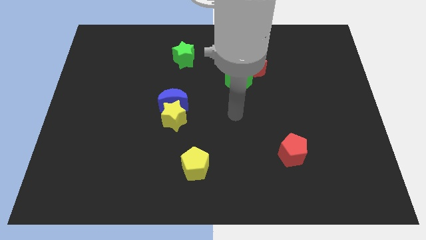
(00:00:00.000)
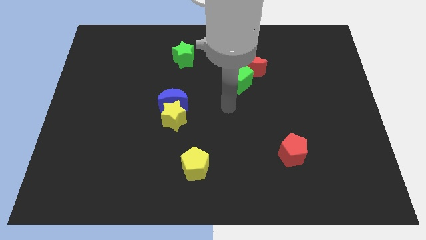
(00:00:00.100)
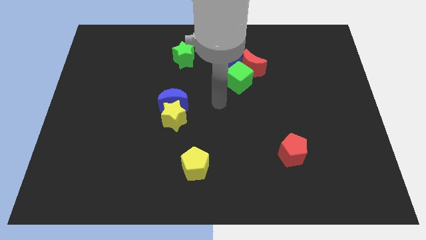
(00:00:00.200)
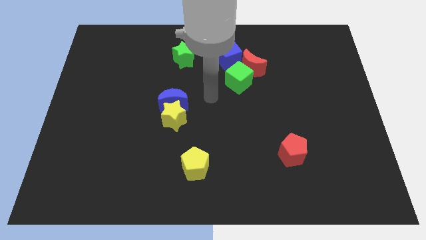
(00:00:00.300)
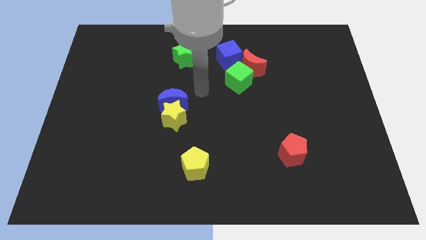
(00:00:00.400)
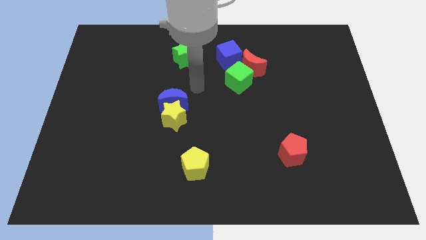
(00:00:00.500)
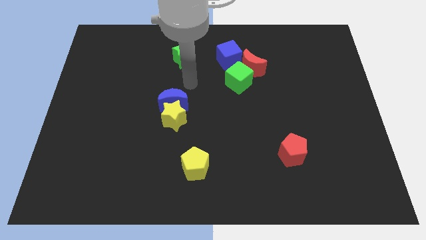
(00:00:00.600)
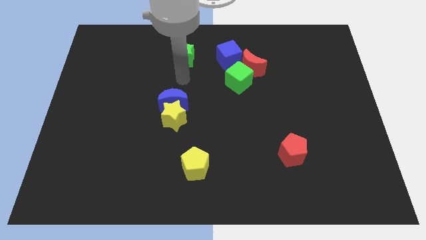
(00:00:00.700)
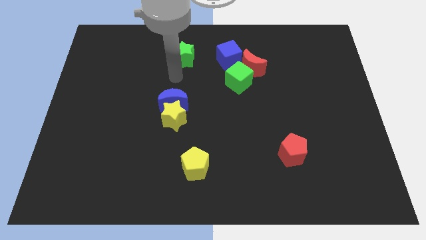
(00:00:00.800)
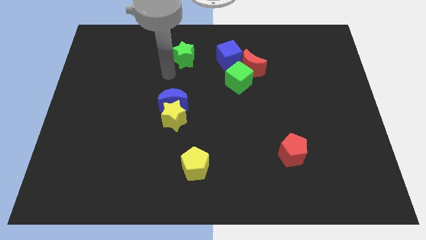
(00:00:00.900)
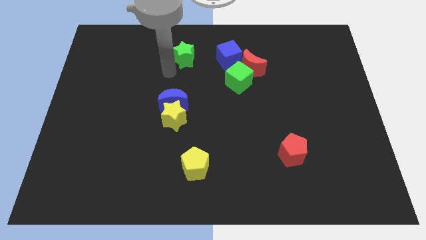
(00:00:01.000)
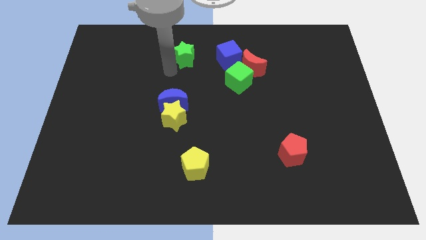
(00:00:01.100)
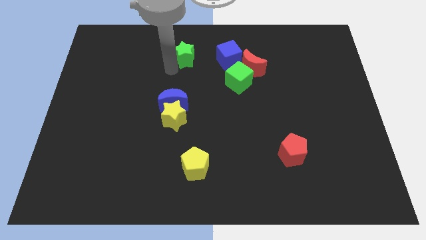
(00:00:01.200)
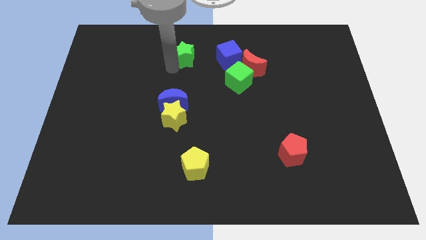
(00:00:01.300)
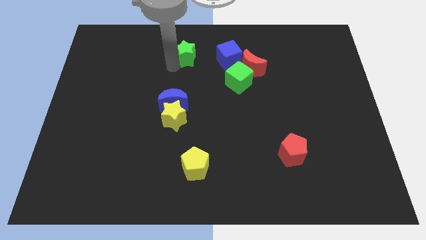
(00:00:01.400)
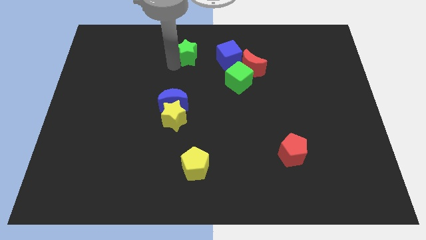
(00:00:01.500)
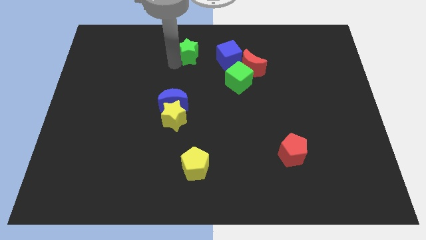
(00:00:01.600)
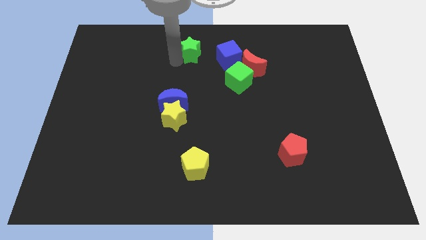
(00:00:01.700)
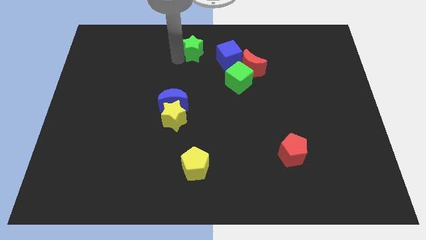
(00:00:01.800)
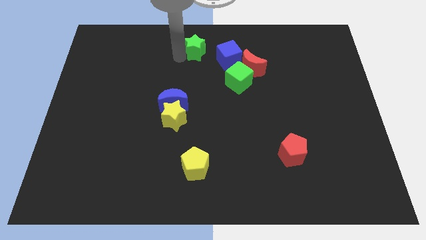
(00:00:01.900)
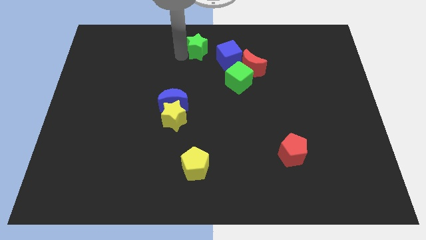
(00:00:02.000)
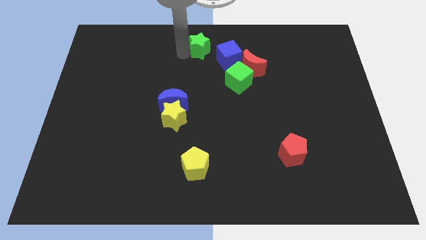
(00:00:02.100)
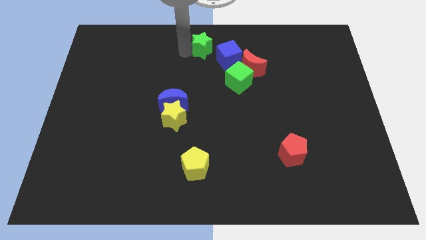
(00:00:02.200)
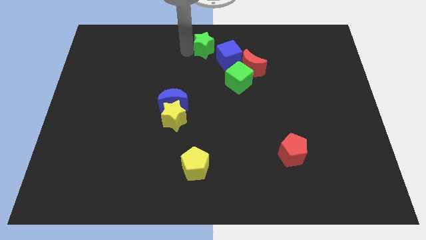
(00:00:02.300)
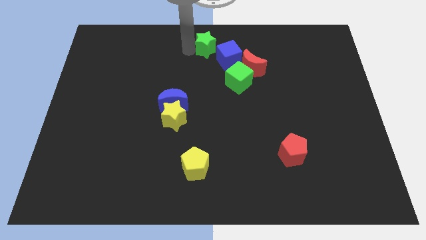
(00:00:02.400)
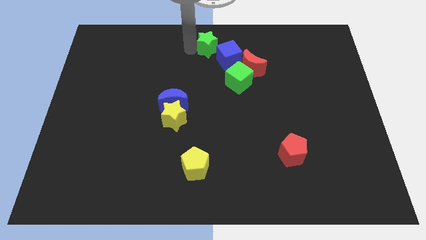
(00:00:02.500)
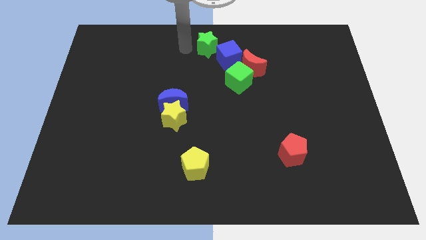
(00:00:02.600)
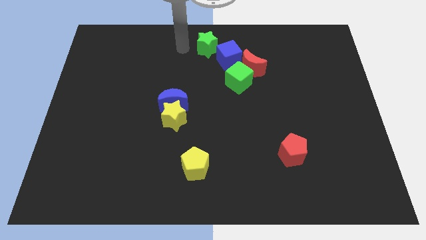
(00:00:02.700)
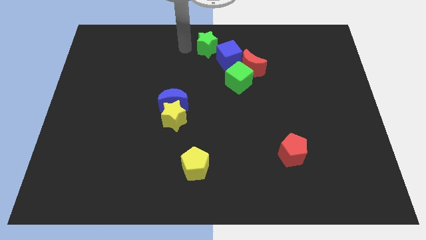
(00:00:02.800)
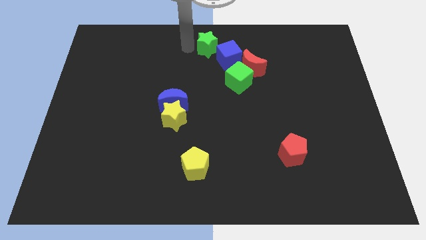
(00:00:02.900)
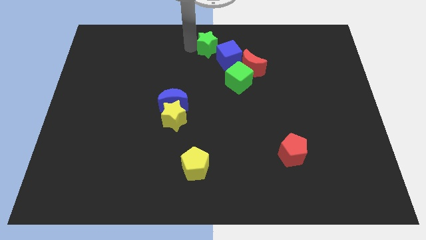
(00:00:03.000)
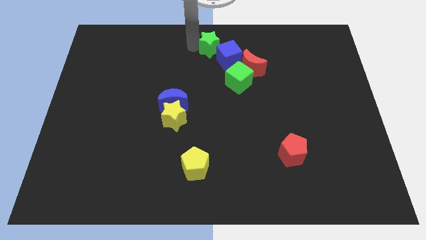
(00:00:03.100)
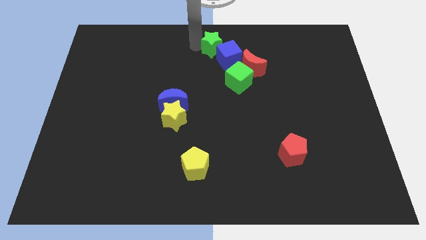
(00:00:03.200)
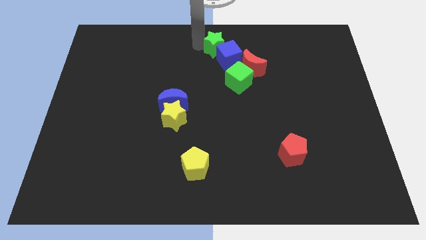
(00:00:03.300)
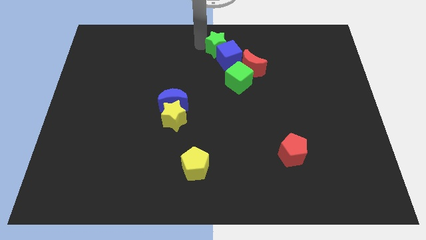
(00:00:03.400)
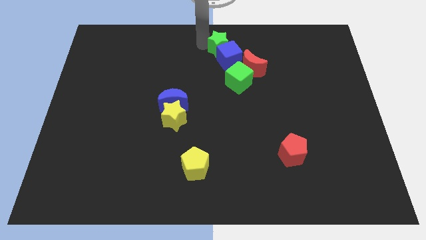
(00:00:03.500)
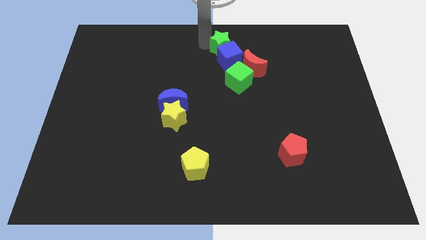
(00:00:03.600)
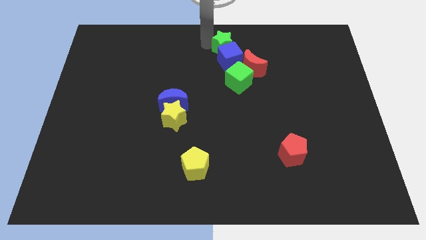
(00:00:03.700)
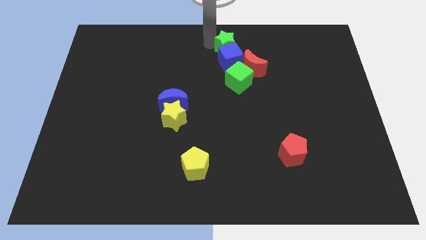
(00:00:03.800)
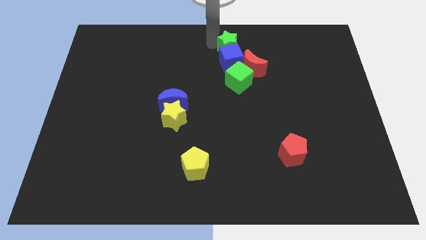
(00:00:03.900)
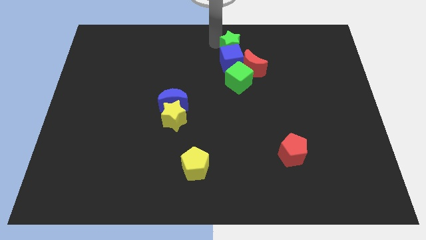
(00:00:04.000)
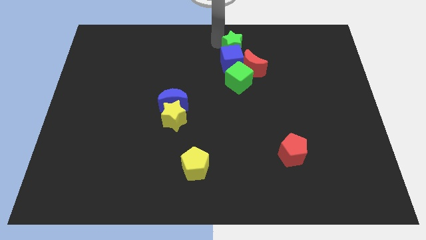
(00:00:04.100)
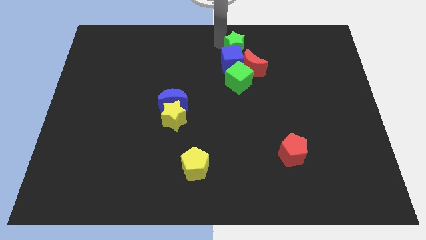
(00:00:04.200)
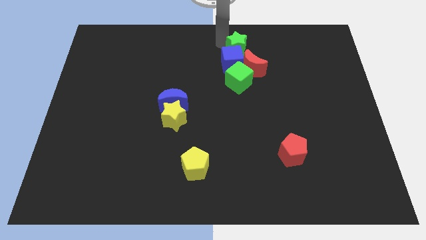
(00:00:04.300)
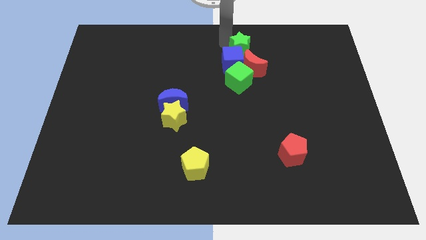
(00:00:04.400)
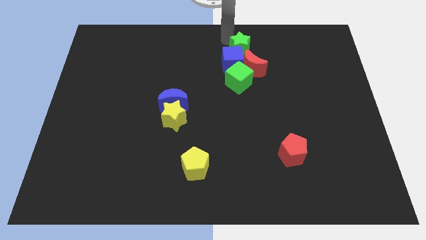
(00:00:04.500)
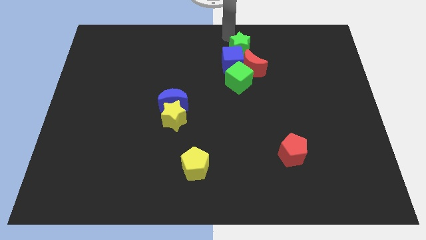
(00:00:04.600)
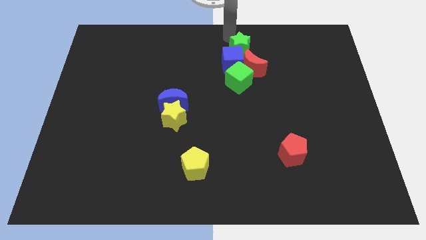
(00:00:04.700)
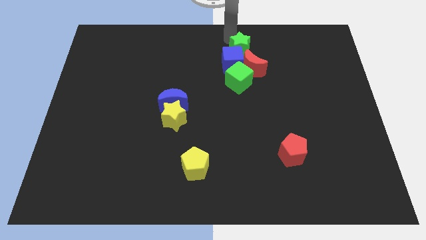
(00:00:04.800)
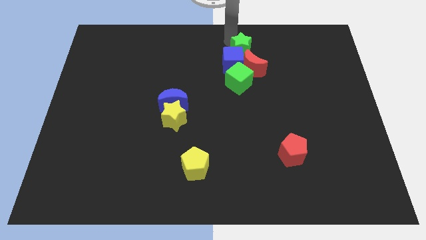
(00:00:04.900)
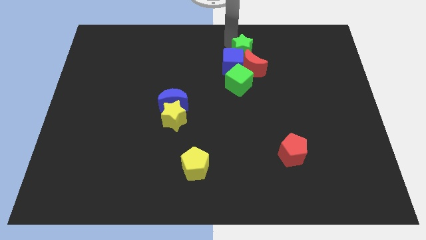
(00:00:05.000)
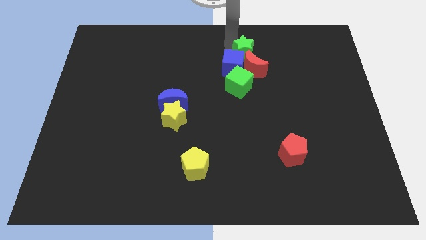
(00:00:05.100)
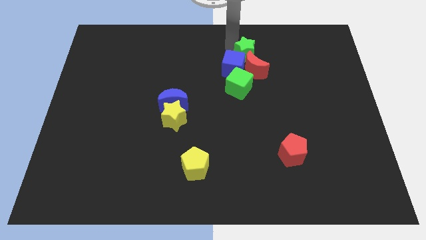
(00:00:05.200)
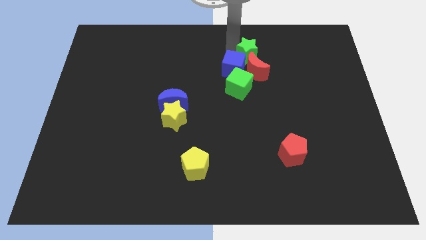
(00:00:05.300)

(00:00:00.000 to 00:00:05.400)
slide the green star next to the red moon

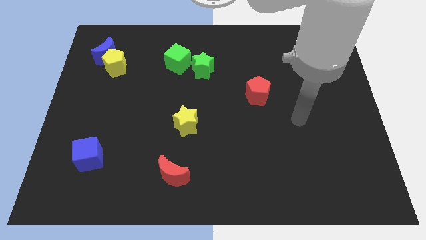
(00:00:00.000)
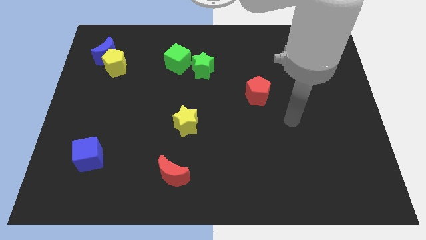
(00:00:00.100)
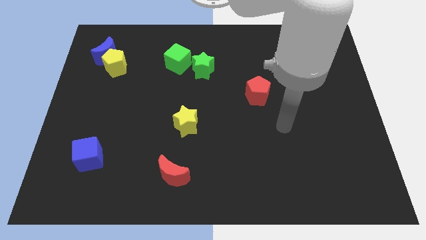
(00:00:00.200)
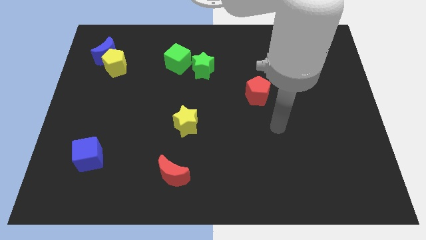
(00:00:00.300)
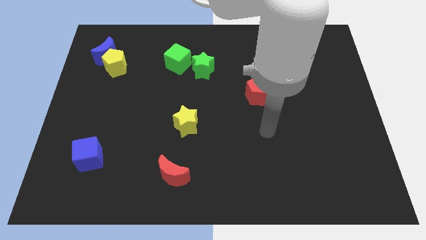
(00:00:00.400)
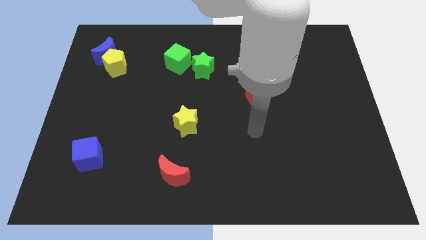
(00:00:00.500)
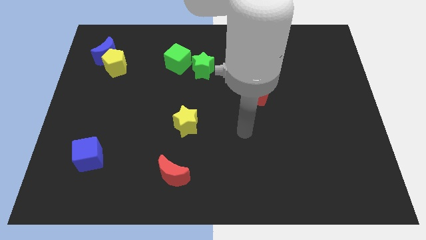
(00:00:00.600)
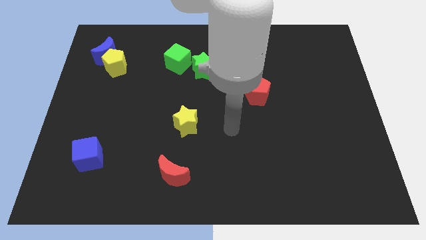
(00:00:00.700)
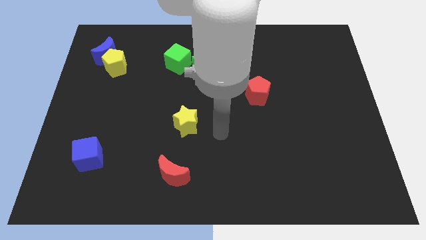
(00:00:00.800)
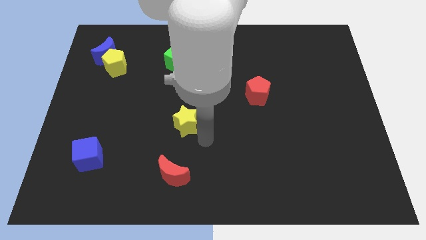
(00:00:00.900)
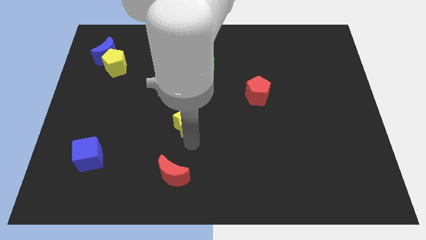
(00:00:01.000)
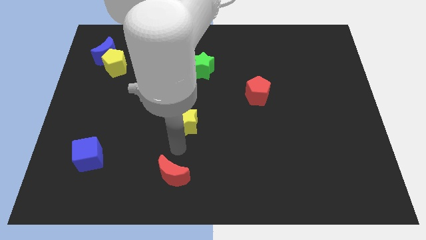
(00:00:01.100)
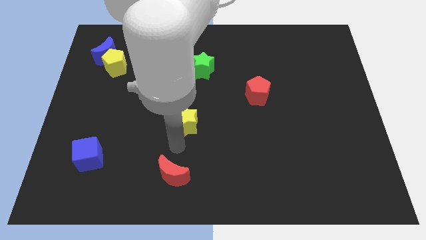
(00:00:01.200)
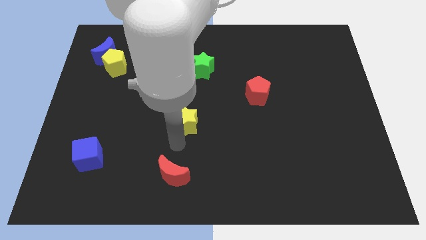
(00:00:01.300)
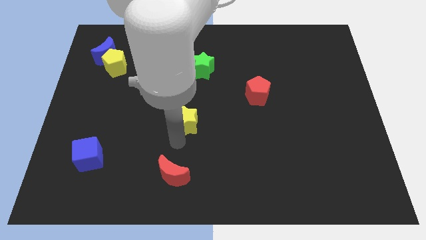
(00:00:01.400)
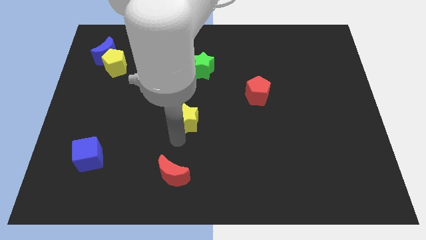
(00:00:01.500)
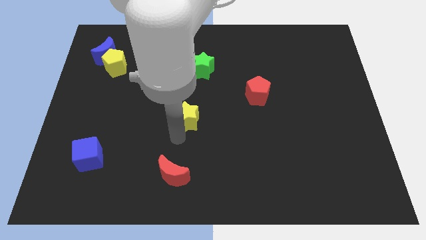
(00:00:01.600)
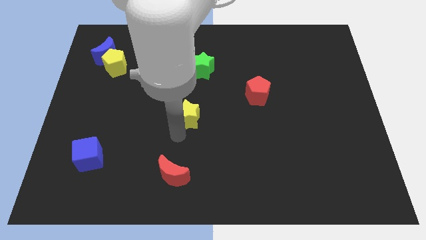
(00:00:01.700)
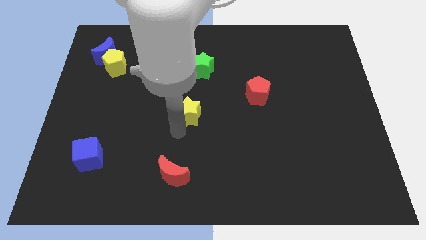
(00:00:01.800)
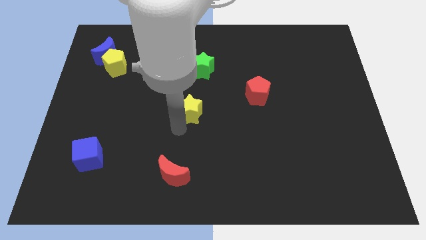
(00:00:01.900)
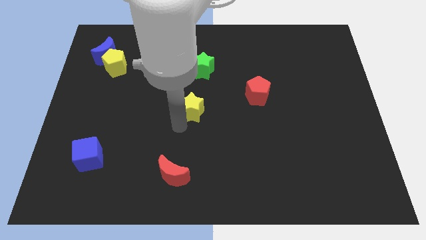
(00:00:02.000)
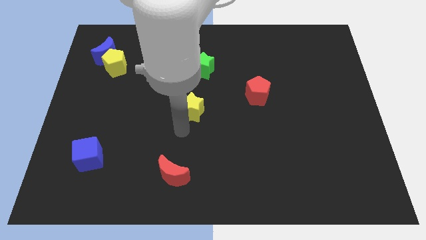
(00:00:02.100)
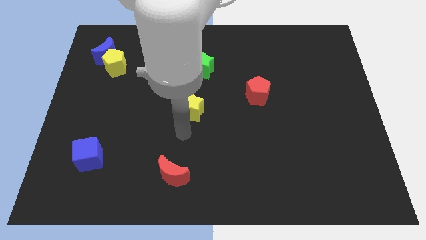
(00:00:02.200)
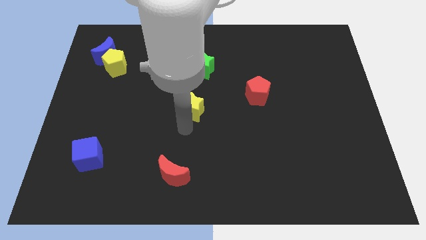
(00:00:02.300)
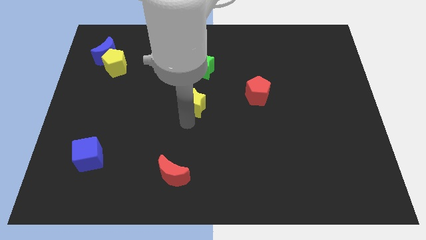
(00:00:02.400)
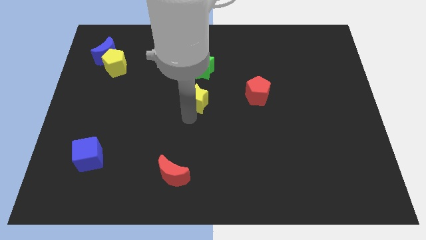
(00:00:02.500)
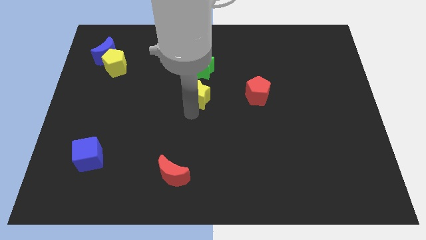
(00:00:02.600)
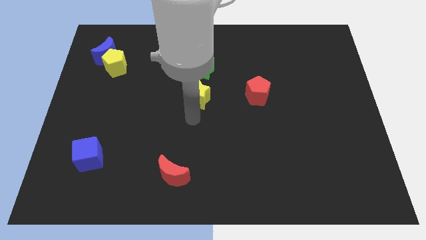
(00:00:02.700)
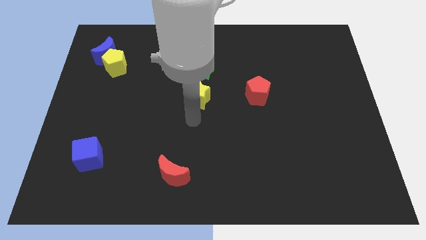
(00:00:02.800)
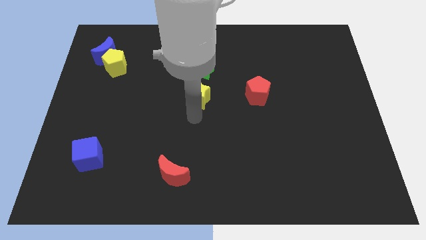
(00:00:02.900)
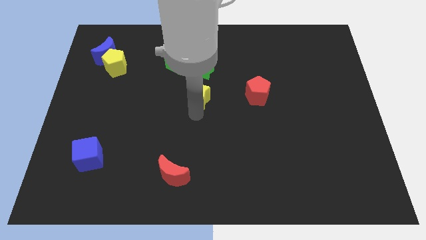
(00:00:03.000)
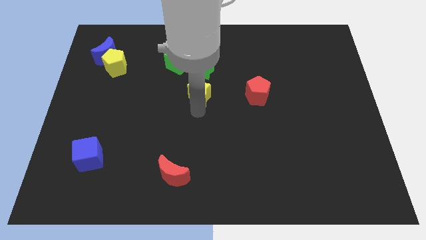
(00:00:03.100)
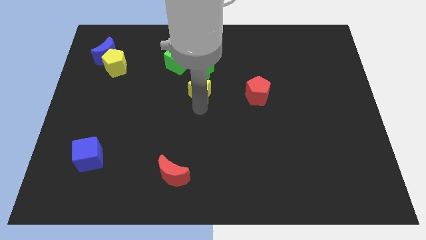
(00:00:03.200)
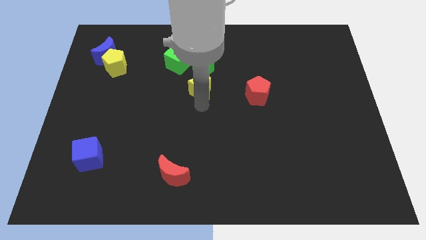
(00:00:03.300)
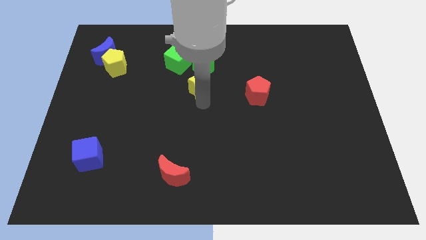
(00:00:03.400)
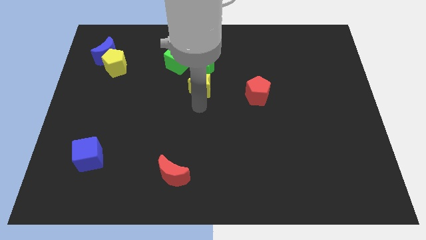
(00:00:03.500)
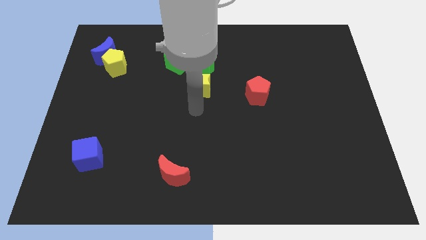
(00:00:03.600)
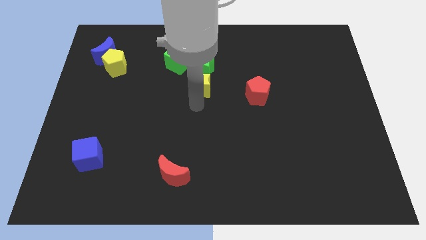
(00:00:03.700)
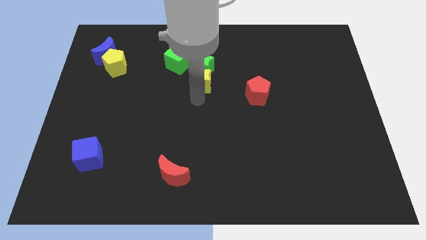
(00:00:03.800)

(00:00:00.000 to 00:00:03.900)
put the yellow star close to the green star
